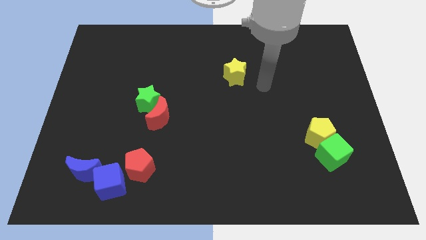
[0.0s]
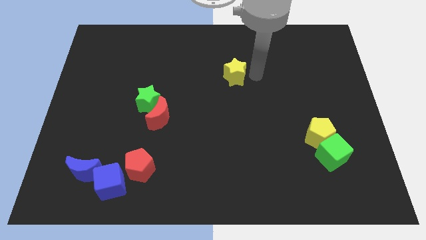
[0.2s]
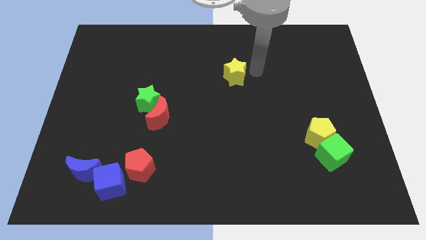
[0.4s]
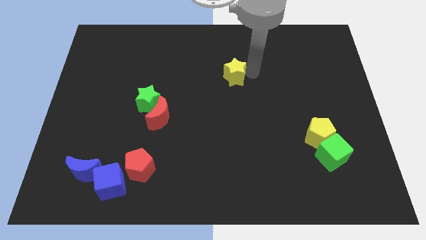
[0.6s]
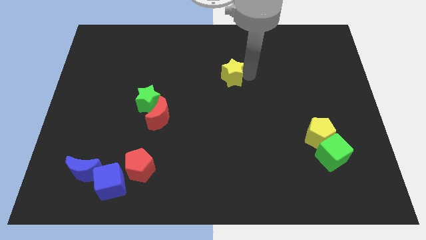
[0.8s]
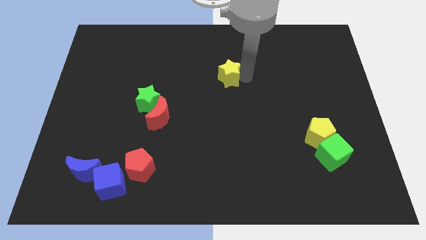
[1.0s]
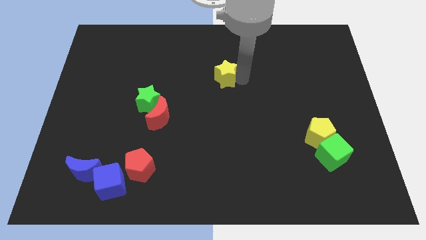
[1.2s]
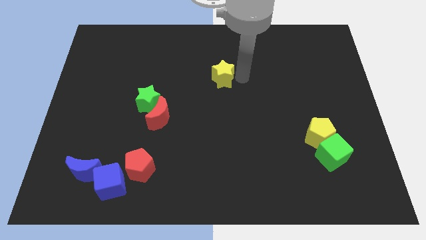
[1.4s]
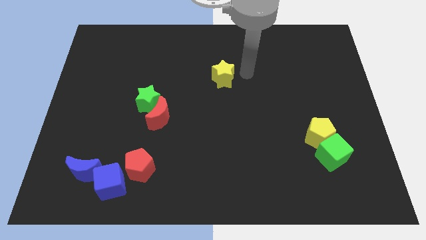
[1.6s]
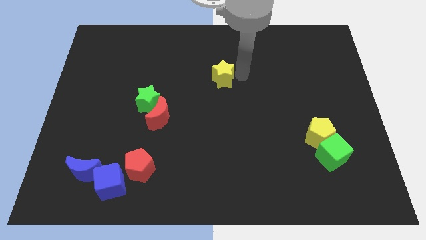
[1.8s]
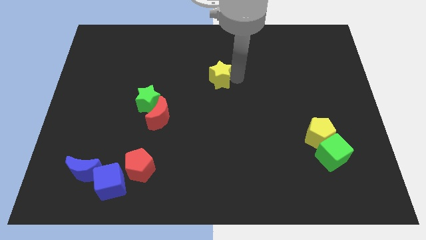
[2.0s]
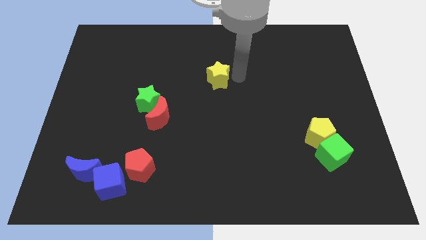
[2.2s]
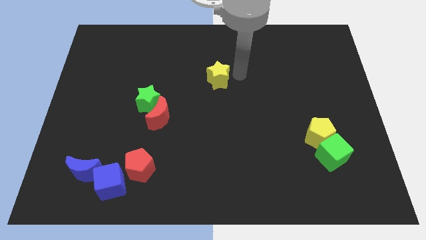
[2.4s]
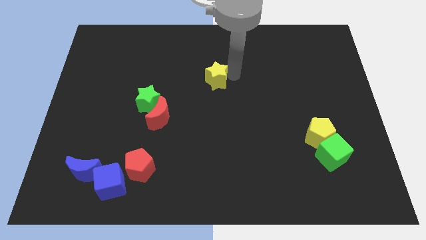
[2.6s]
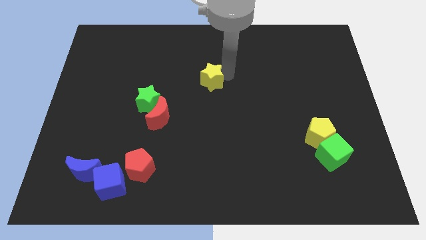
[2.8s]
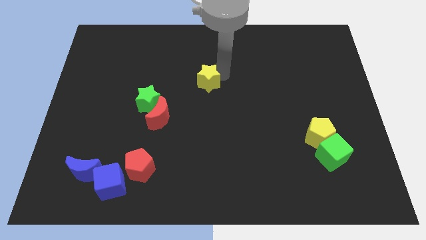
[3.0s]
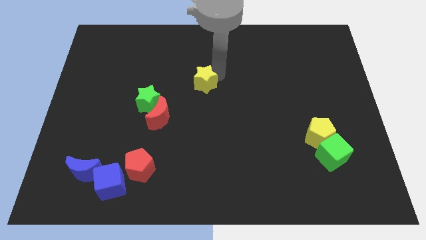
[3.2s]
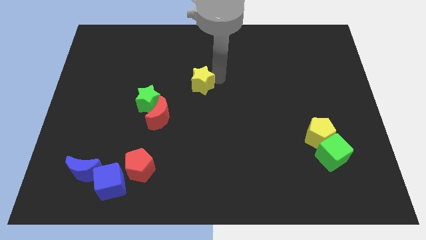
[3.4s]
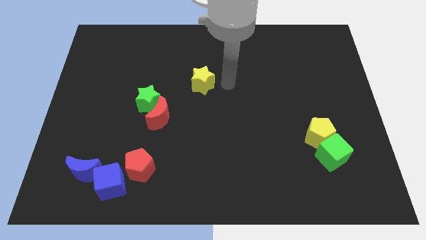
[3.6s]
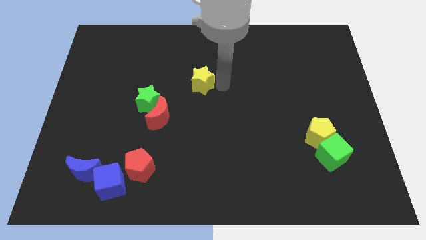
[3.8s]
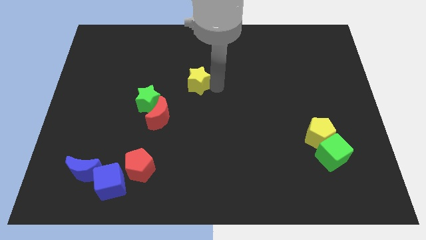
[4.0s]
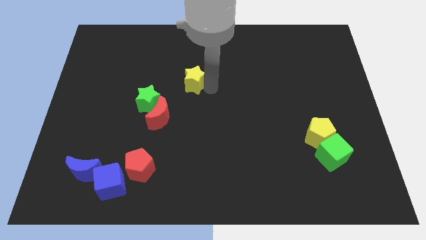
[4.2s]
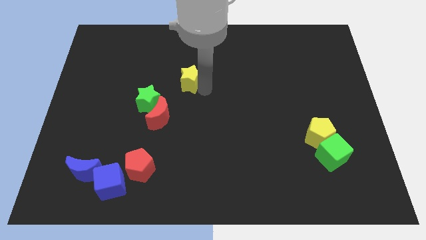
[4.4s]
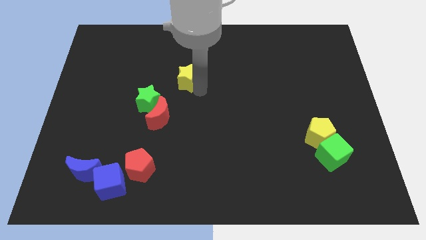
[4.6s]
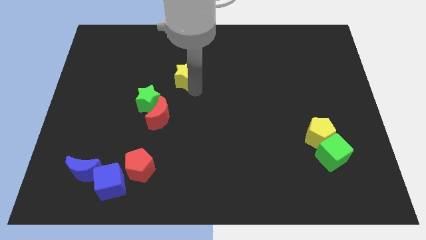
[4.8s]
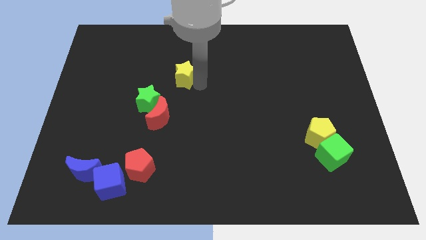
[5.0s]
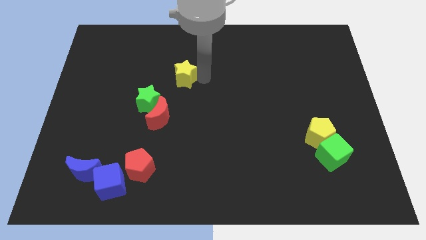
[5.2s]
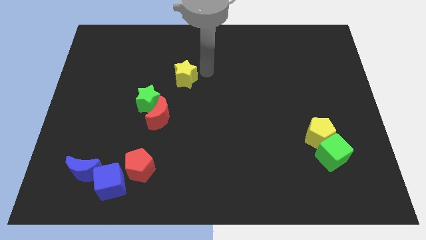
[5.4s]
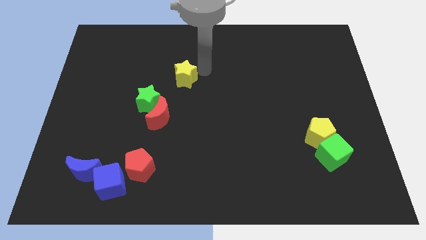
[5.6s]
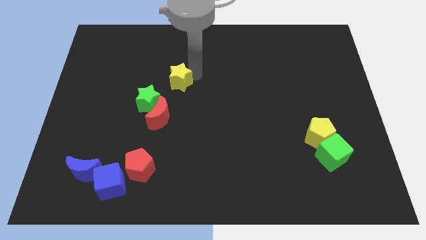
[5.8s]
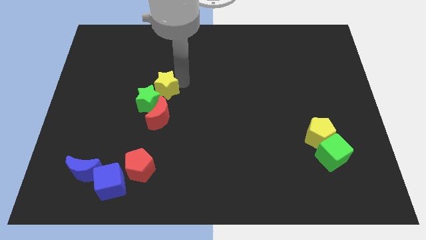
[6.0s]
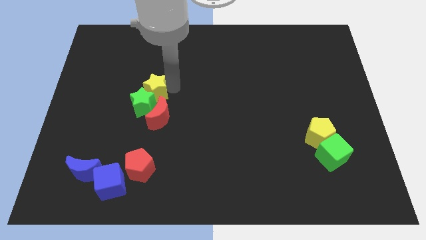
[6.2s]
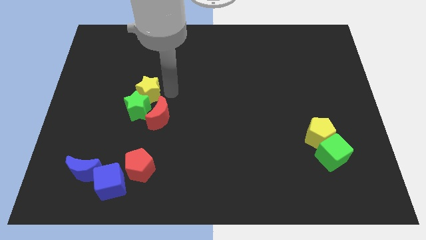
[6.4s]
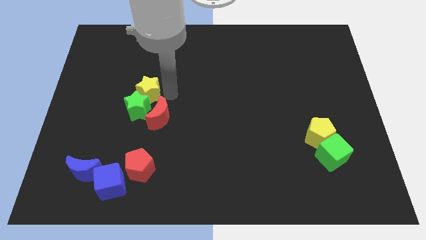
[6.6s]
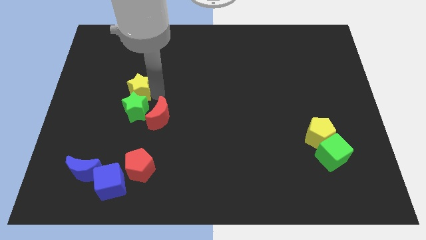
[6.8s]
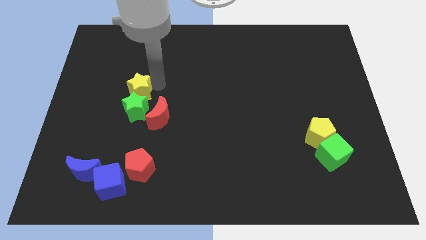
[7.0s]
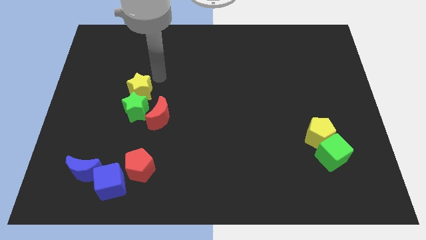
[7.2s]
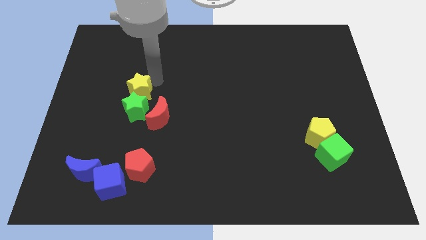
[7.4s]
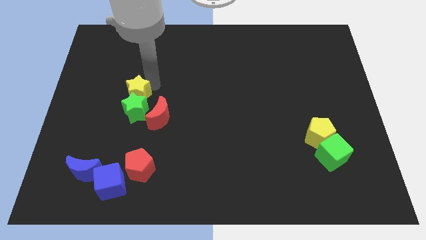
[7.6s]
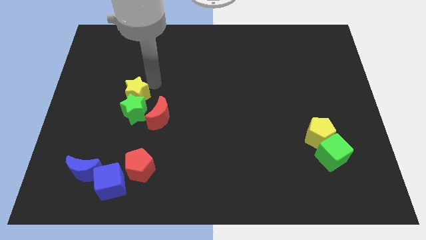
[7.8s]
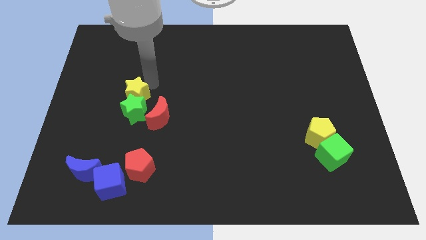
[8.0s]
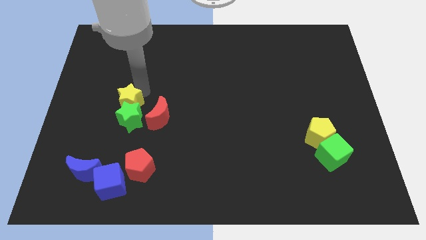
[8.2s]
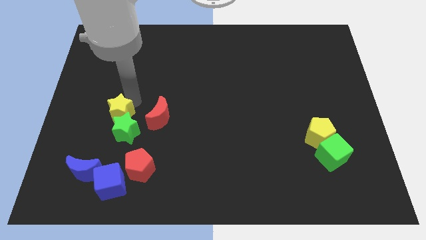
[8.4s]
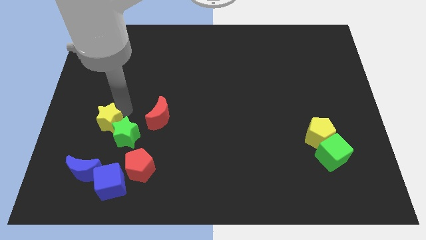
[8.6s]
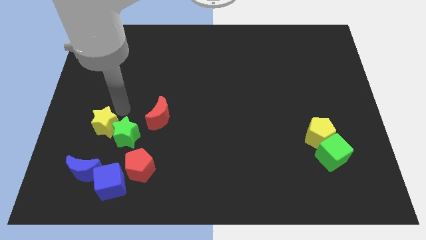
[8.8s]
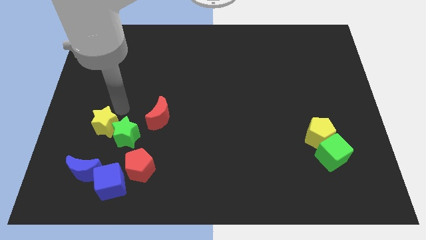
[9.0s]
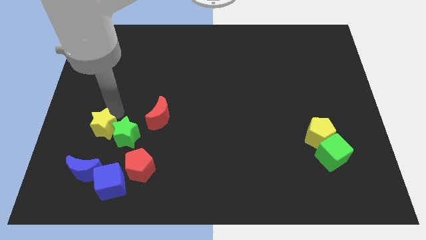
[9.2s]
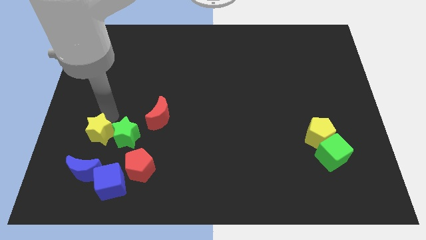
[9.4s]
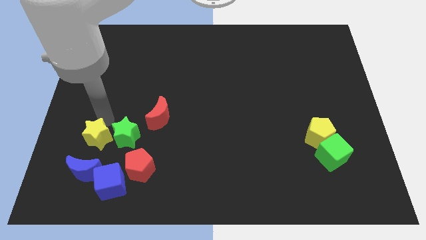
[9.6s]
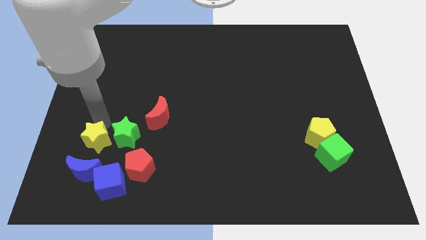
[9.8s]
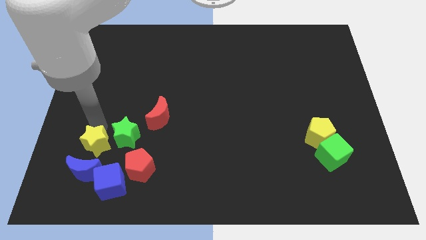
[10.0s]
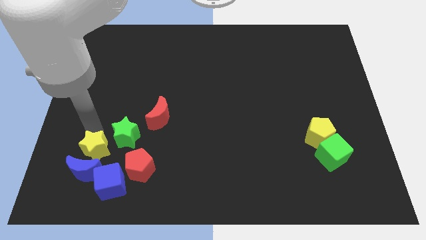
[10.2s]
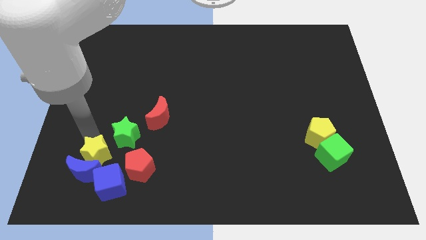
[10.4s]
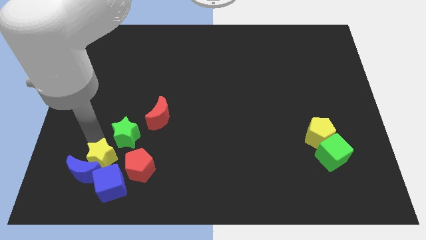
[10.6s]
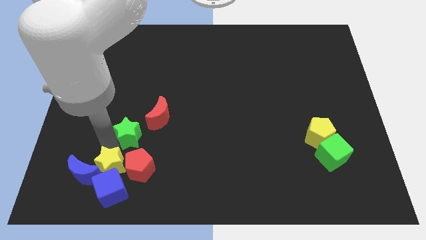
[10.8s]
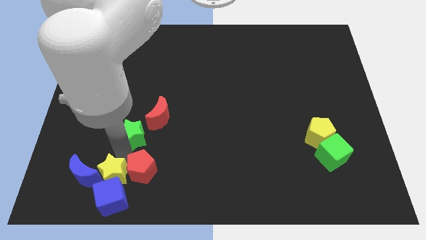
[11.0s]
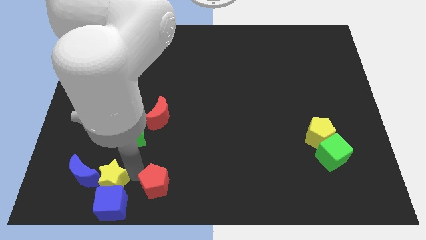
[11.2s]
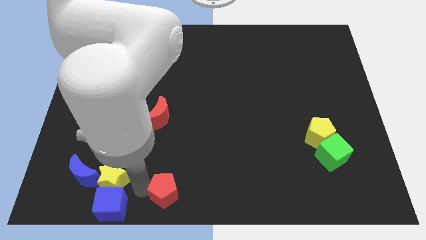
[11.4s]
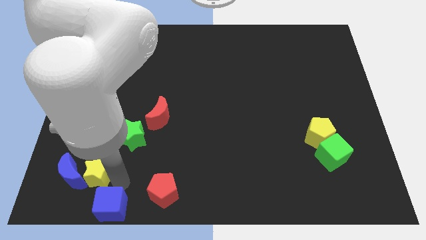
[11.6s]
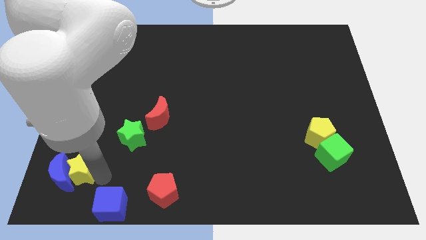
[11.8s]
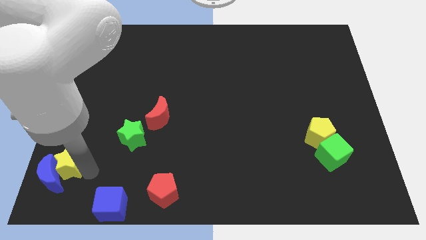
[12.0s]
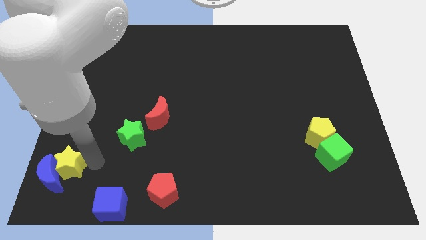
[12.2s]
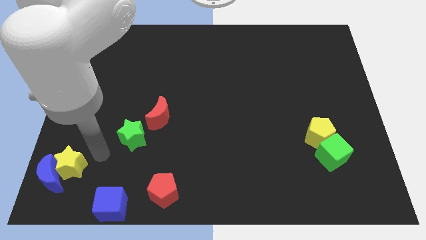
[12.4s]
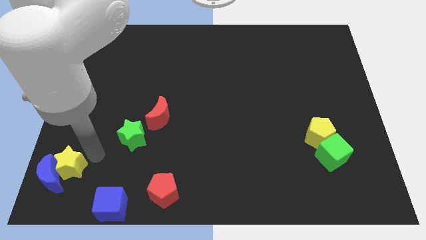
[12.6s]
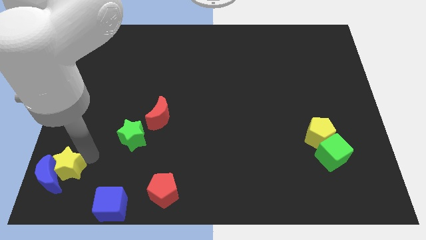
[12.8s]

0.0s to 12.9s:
push the yellow star to the bottom left of the board
